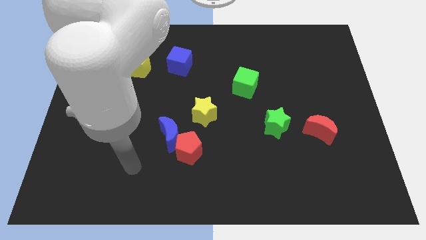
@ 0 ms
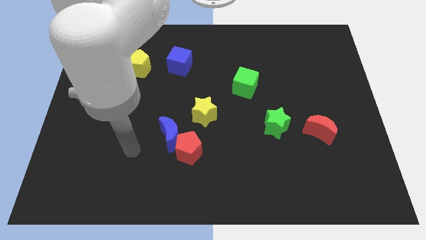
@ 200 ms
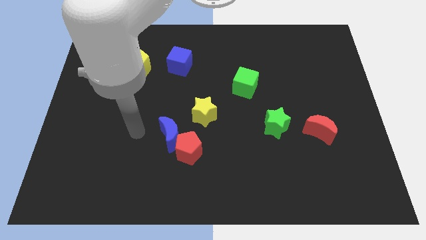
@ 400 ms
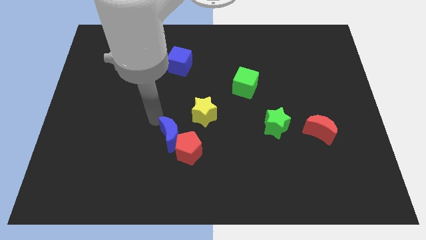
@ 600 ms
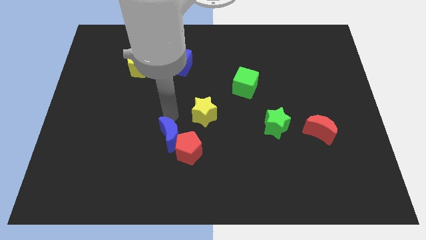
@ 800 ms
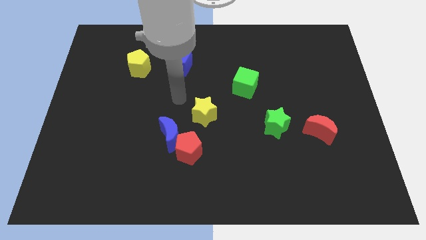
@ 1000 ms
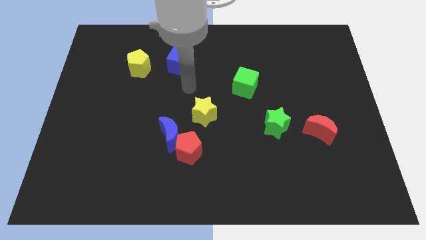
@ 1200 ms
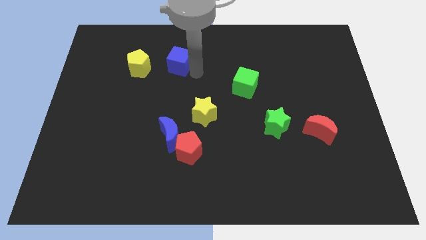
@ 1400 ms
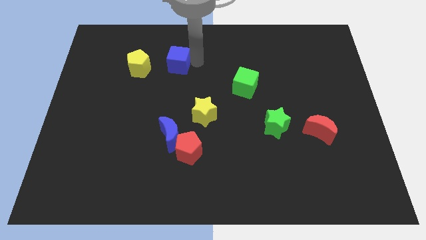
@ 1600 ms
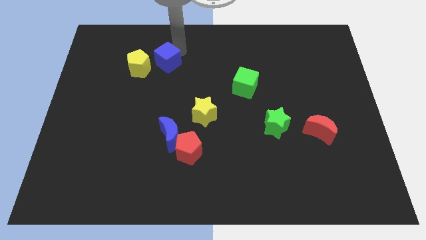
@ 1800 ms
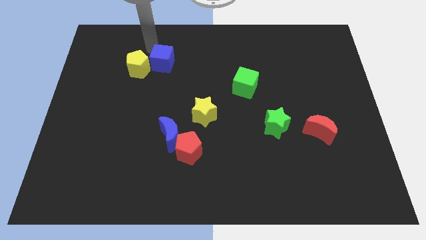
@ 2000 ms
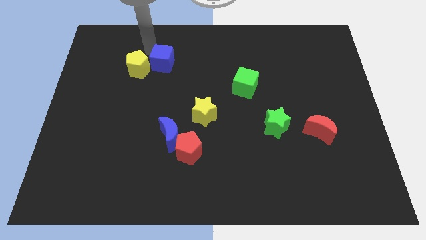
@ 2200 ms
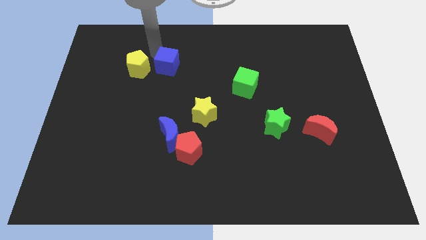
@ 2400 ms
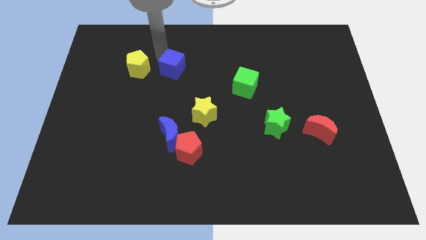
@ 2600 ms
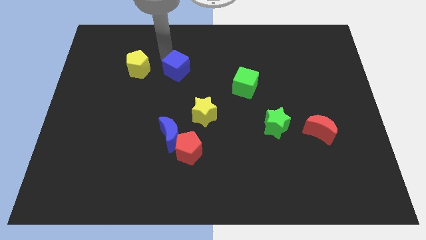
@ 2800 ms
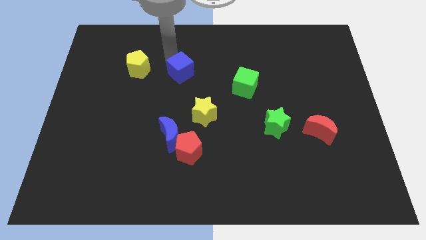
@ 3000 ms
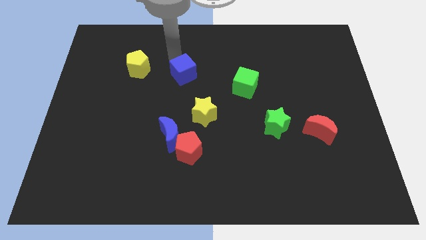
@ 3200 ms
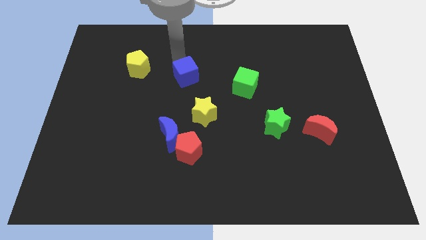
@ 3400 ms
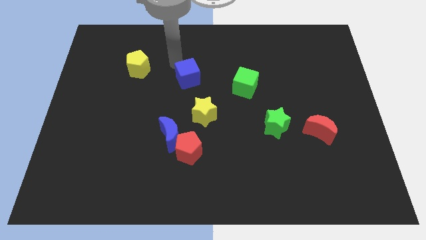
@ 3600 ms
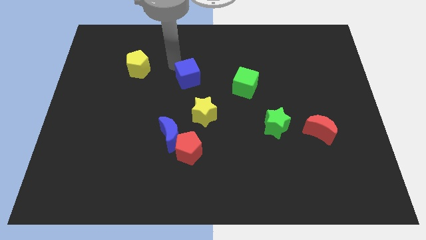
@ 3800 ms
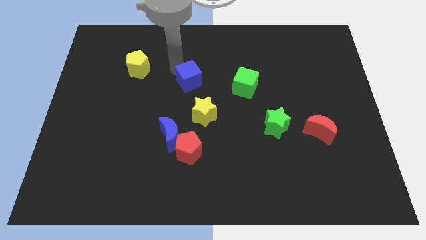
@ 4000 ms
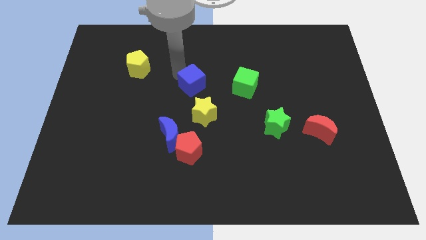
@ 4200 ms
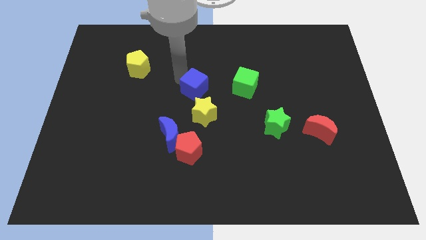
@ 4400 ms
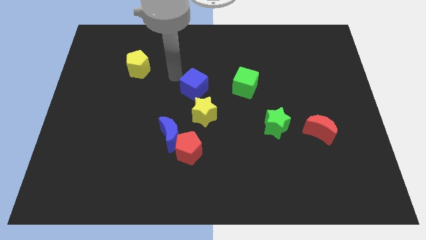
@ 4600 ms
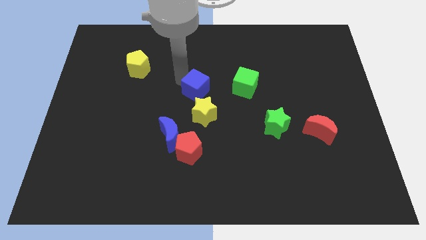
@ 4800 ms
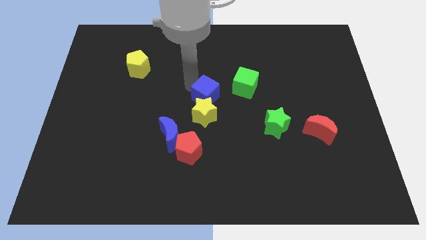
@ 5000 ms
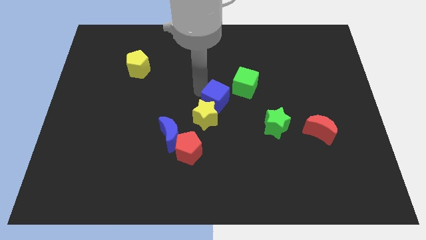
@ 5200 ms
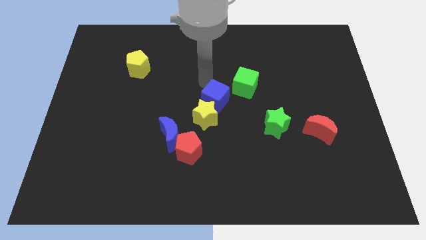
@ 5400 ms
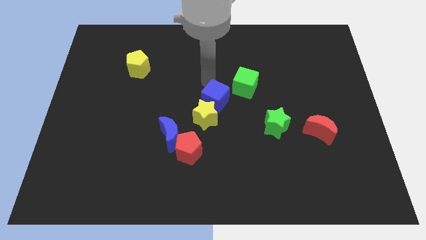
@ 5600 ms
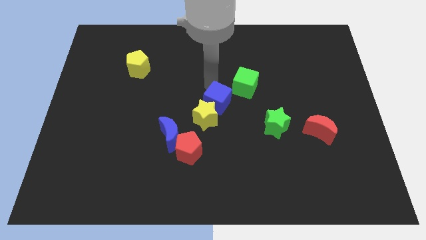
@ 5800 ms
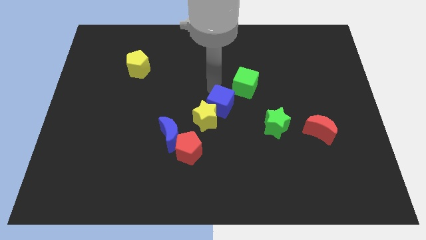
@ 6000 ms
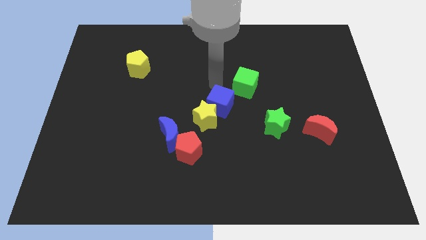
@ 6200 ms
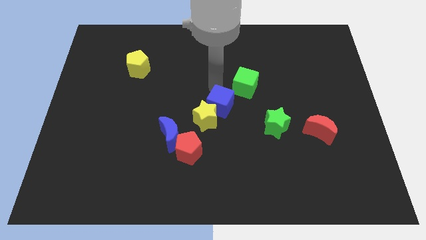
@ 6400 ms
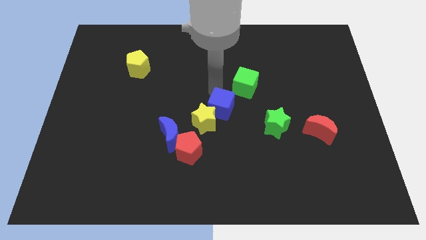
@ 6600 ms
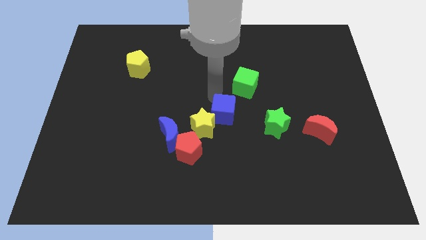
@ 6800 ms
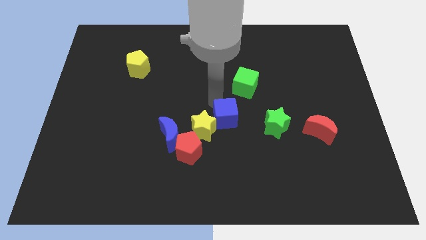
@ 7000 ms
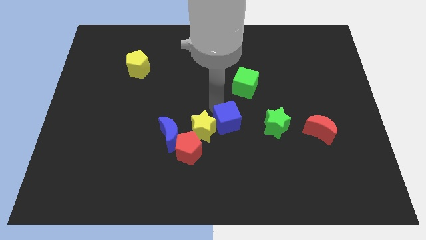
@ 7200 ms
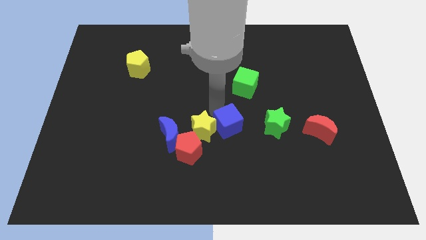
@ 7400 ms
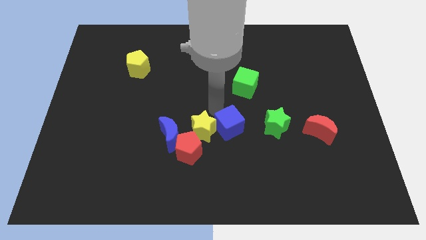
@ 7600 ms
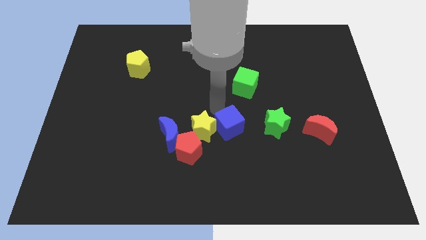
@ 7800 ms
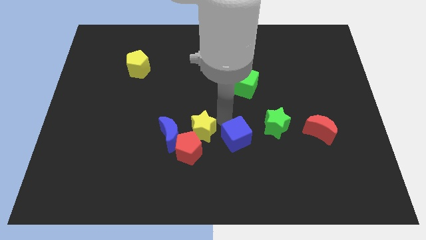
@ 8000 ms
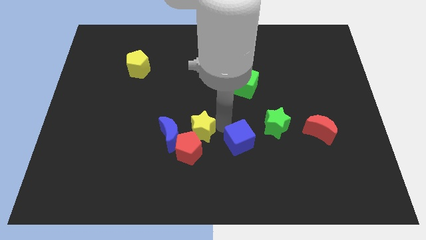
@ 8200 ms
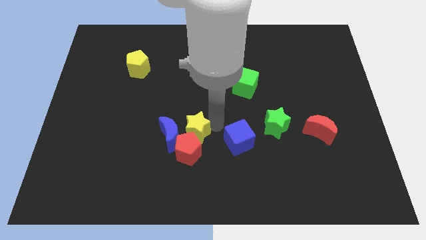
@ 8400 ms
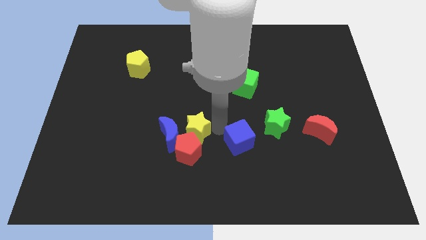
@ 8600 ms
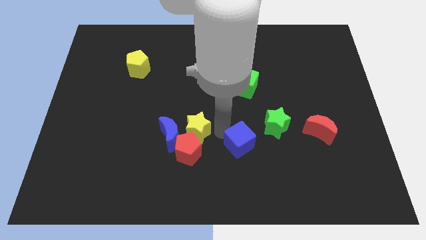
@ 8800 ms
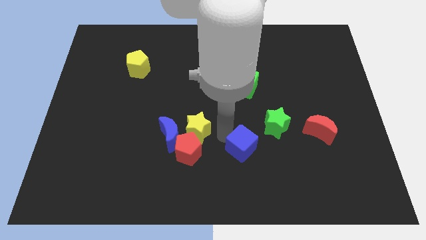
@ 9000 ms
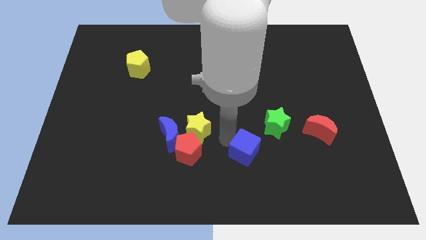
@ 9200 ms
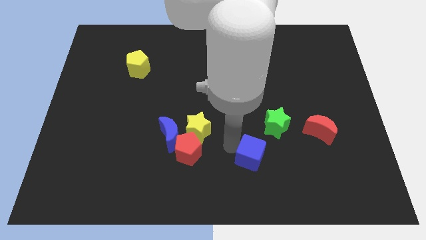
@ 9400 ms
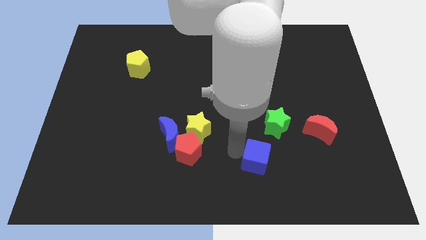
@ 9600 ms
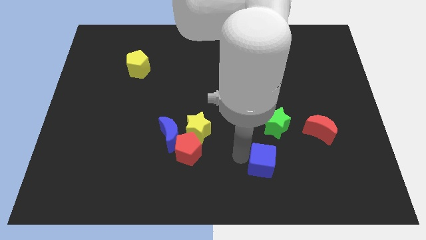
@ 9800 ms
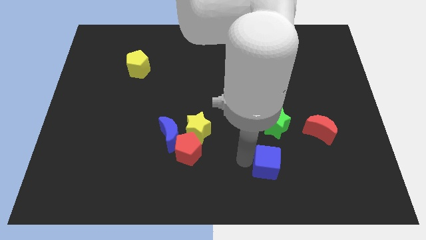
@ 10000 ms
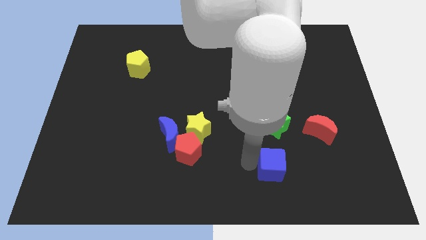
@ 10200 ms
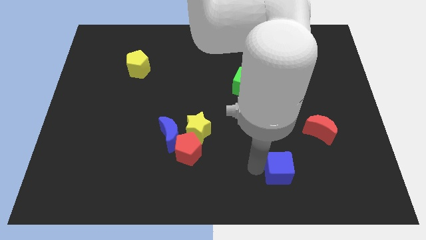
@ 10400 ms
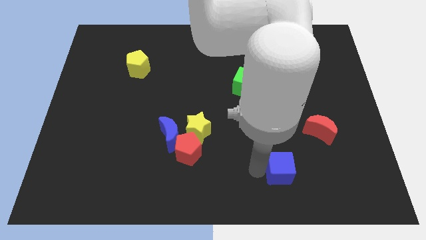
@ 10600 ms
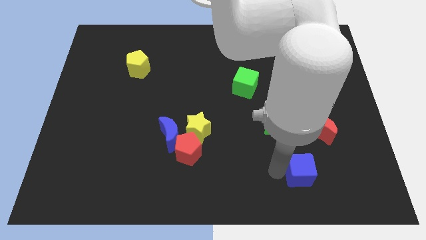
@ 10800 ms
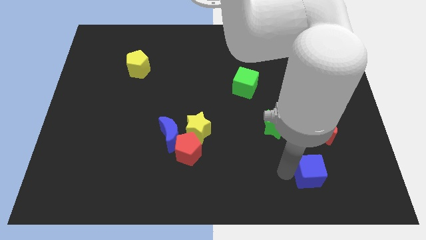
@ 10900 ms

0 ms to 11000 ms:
put the blue cube below the red moon

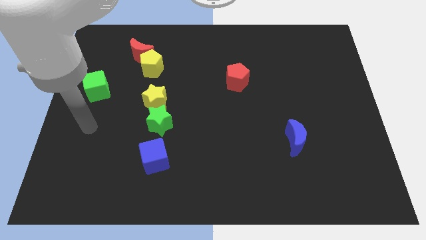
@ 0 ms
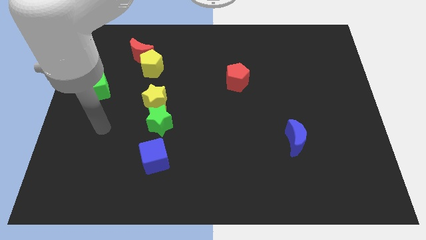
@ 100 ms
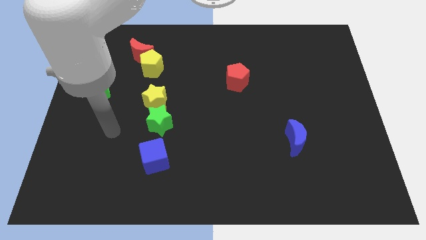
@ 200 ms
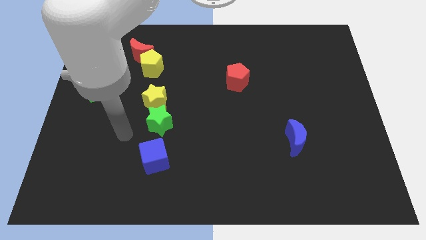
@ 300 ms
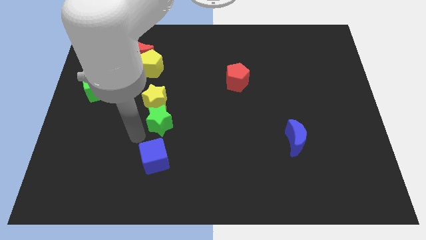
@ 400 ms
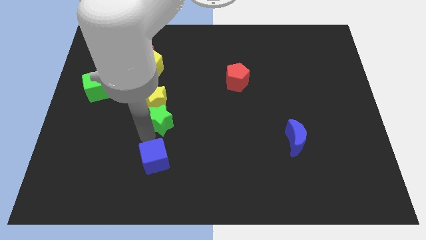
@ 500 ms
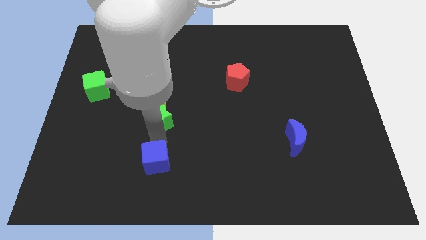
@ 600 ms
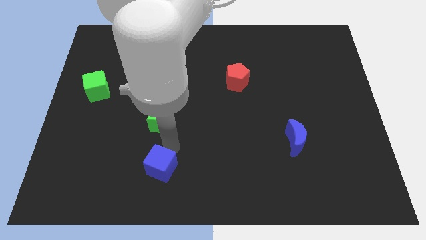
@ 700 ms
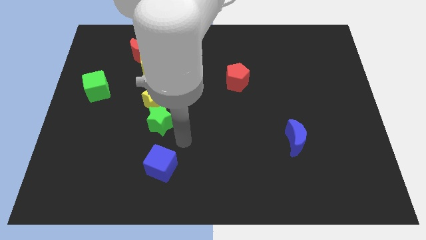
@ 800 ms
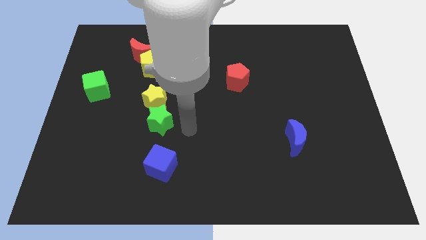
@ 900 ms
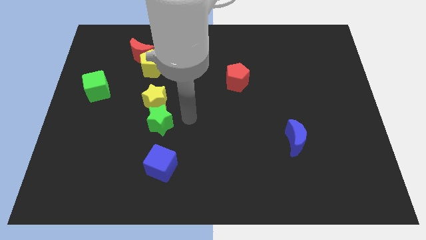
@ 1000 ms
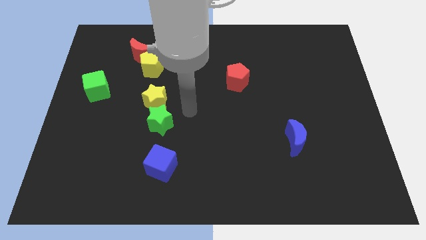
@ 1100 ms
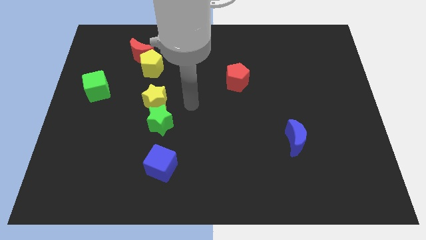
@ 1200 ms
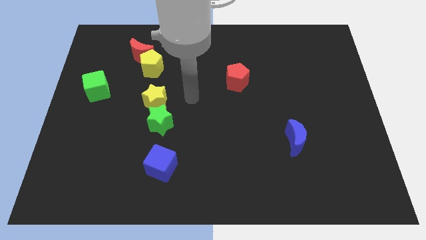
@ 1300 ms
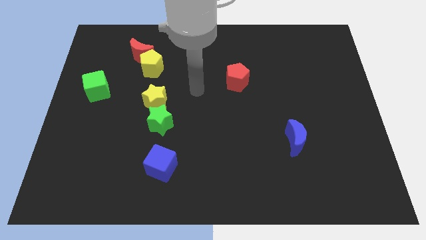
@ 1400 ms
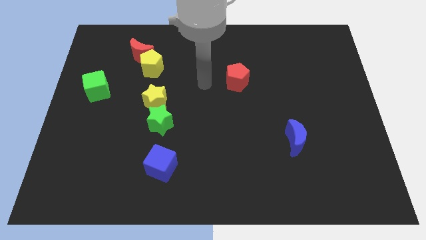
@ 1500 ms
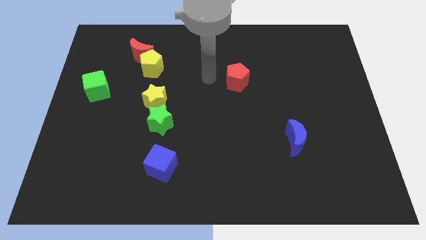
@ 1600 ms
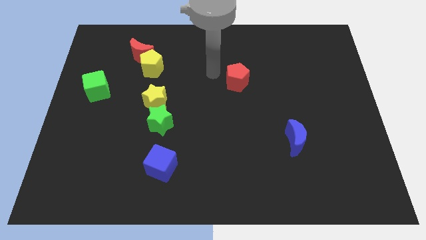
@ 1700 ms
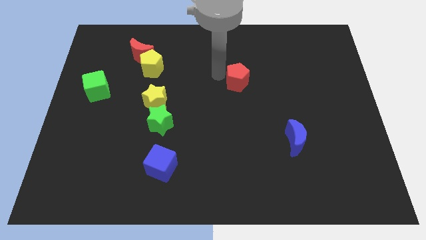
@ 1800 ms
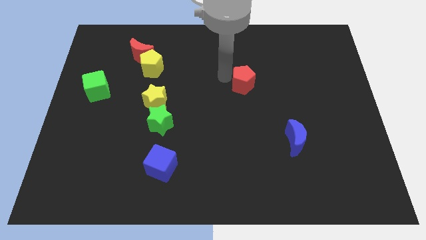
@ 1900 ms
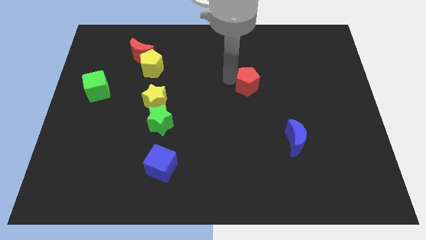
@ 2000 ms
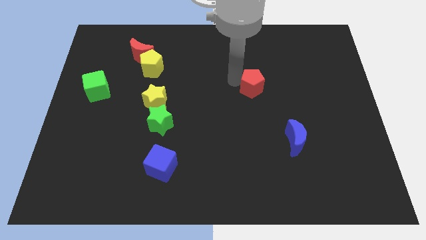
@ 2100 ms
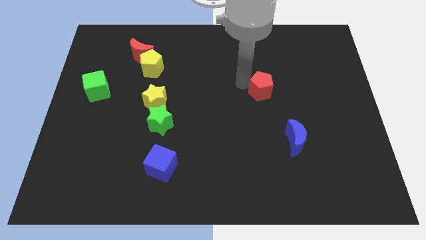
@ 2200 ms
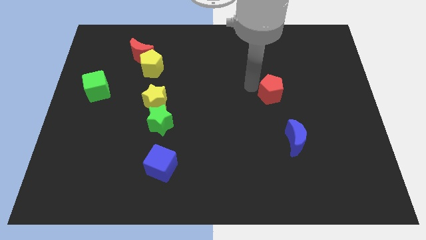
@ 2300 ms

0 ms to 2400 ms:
move the red pentagon to the top of the blue moon
